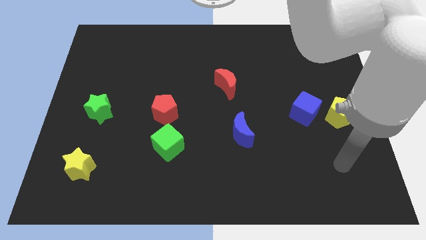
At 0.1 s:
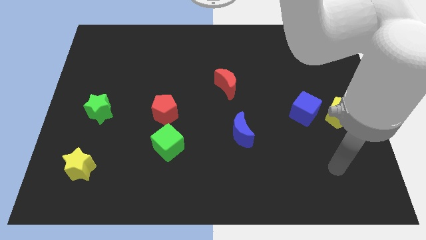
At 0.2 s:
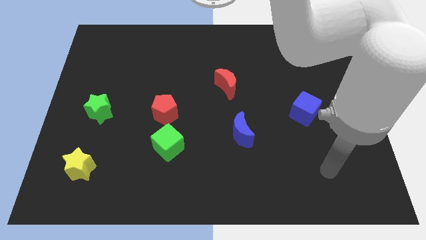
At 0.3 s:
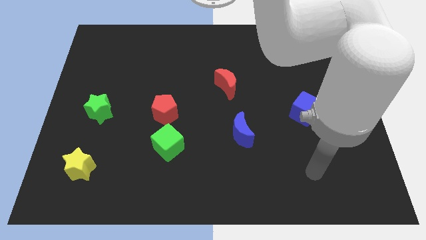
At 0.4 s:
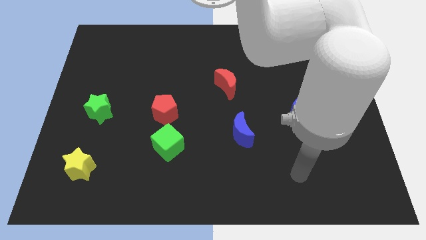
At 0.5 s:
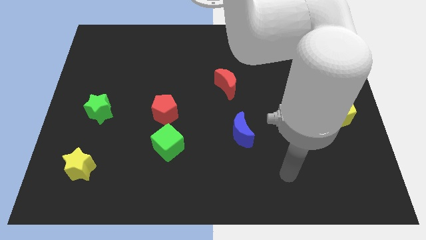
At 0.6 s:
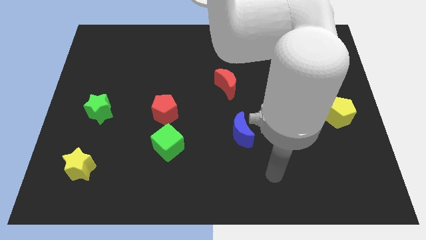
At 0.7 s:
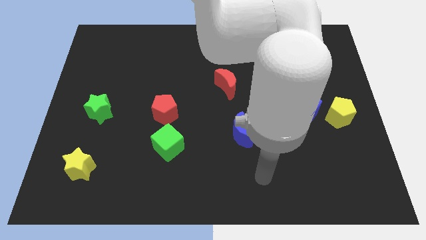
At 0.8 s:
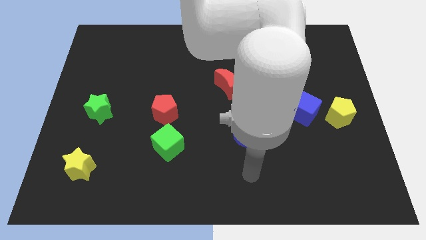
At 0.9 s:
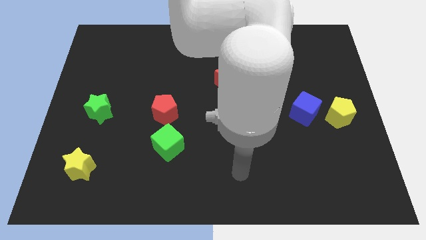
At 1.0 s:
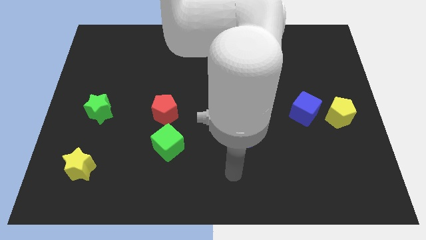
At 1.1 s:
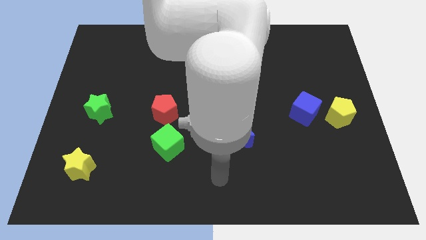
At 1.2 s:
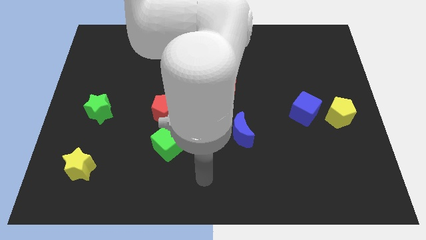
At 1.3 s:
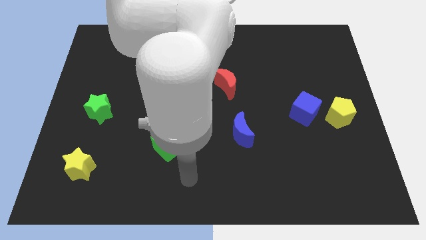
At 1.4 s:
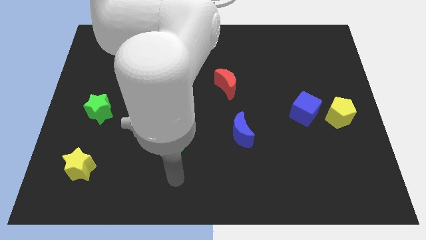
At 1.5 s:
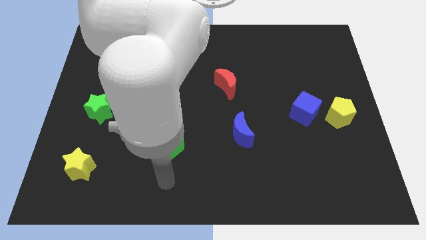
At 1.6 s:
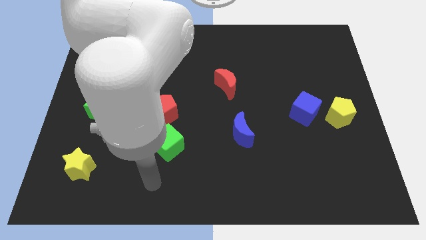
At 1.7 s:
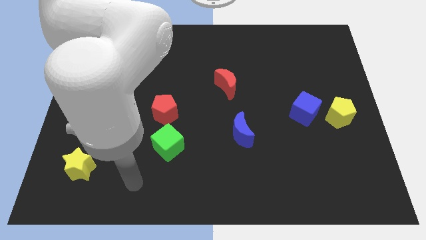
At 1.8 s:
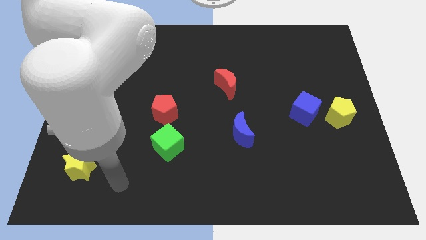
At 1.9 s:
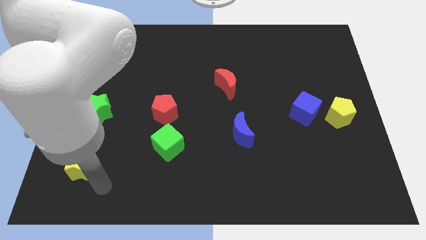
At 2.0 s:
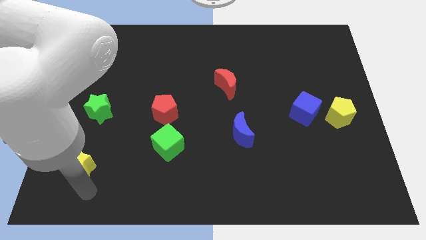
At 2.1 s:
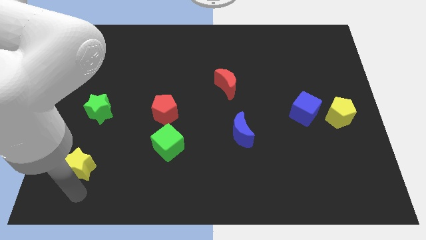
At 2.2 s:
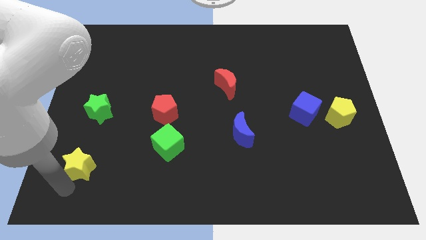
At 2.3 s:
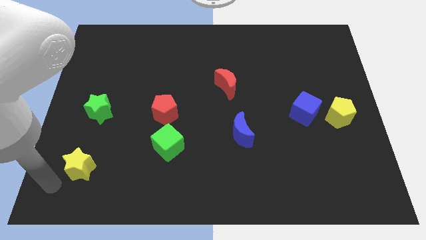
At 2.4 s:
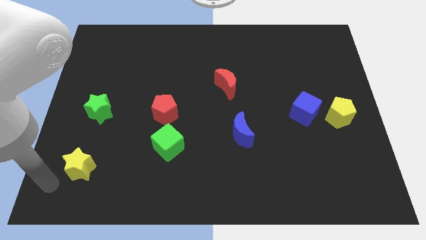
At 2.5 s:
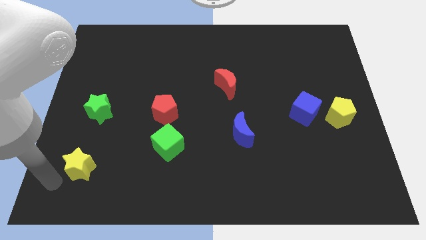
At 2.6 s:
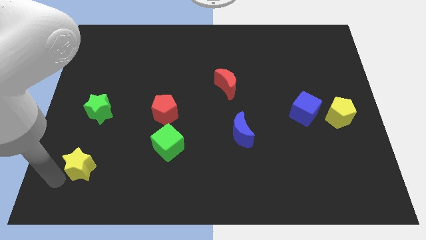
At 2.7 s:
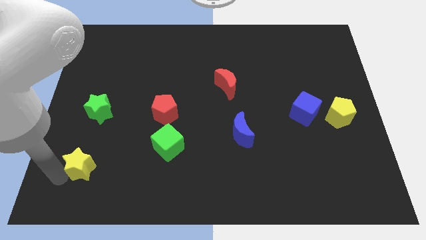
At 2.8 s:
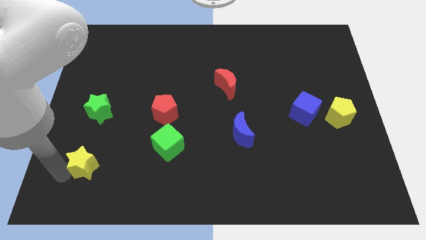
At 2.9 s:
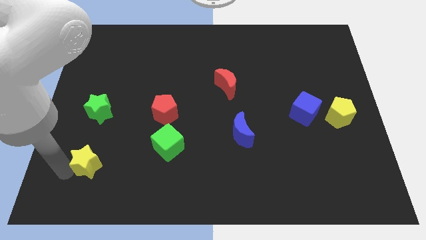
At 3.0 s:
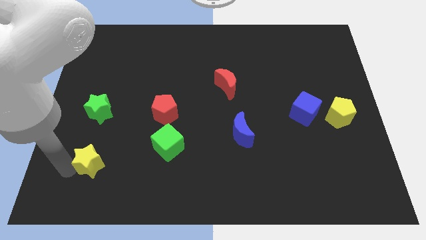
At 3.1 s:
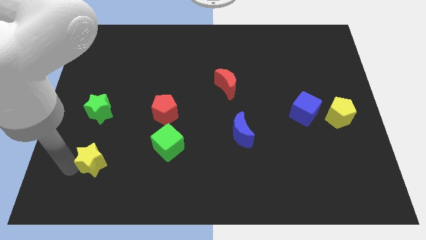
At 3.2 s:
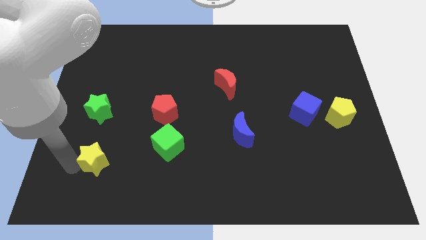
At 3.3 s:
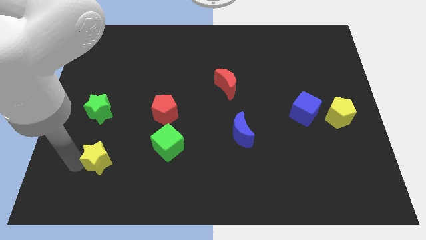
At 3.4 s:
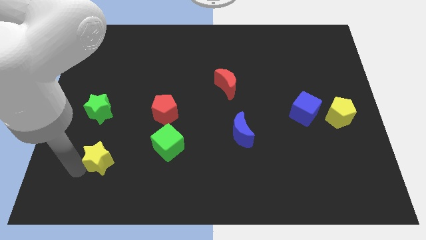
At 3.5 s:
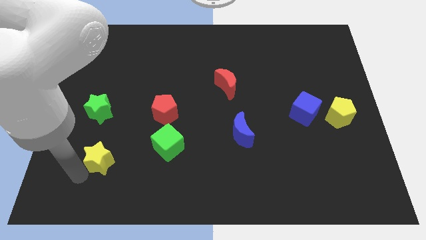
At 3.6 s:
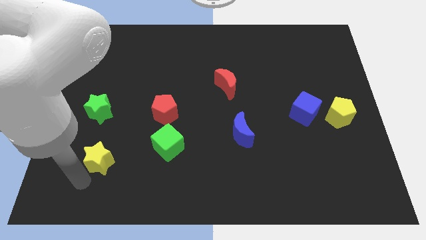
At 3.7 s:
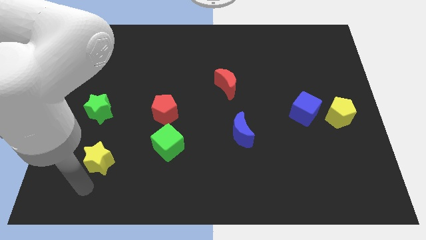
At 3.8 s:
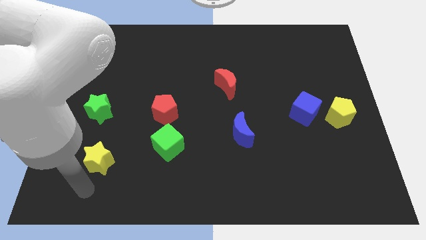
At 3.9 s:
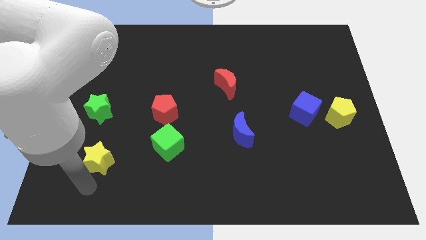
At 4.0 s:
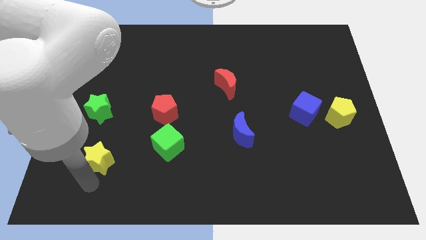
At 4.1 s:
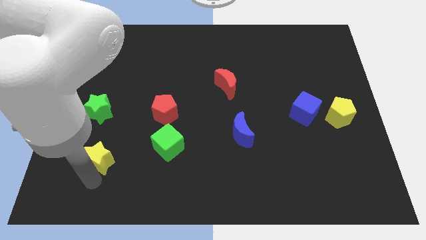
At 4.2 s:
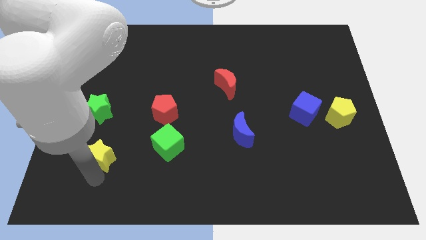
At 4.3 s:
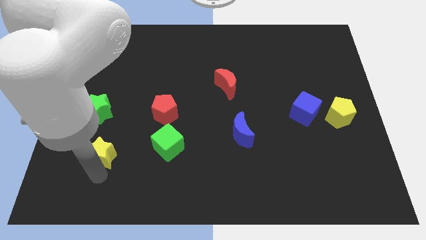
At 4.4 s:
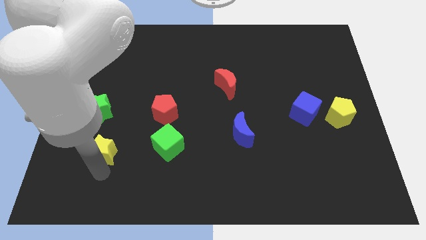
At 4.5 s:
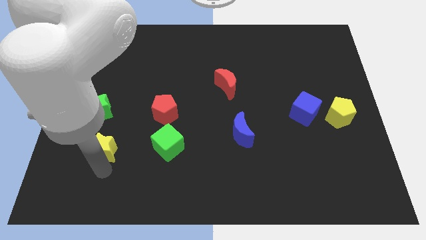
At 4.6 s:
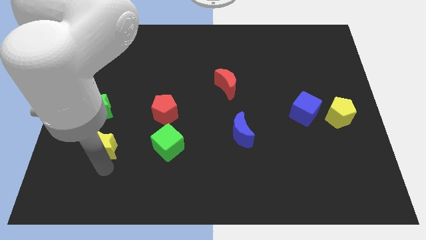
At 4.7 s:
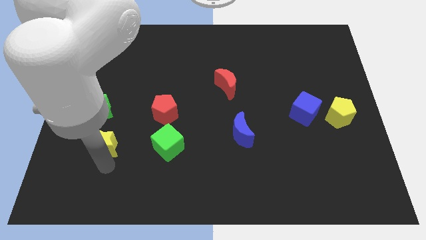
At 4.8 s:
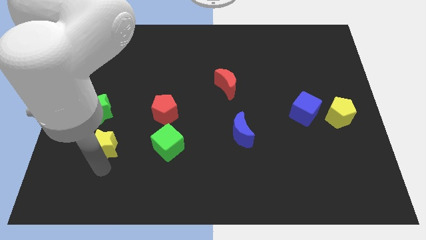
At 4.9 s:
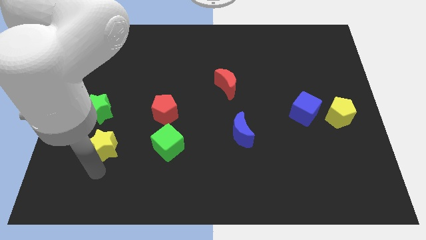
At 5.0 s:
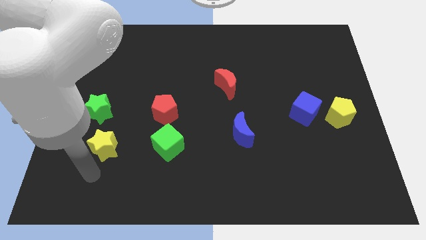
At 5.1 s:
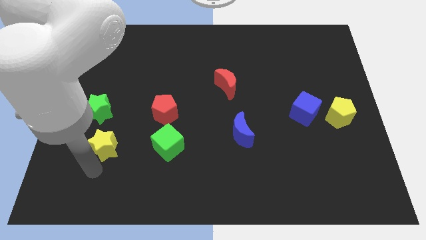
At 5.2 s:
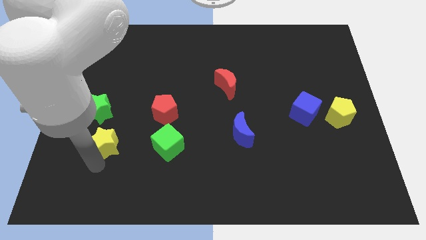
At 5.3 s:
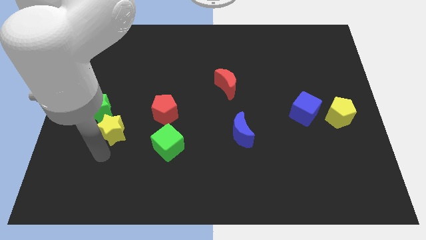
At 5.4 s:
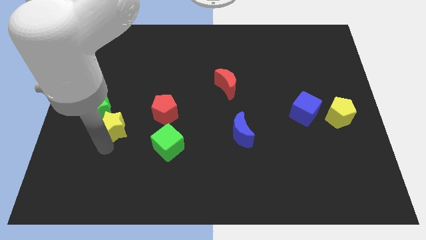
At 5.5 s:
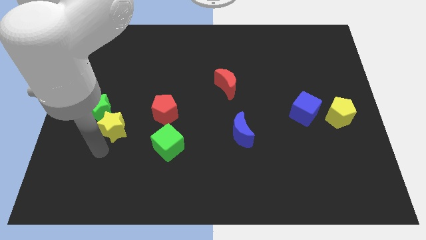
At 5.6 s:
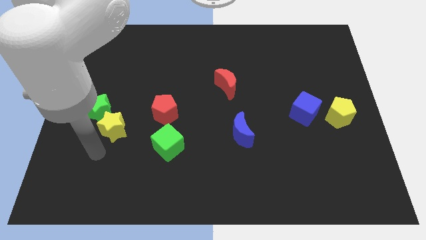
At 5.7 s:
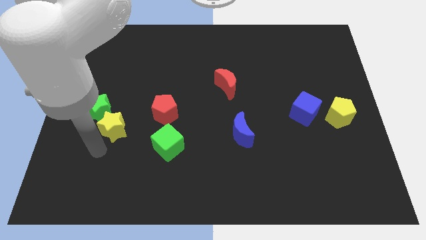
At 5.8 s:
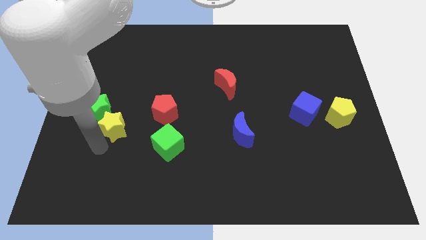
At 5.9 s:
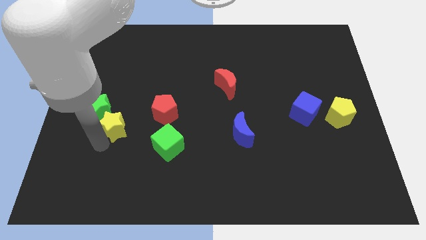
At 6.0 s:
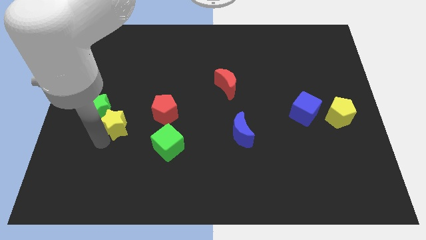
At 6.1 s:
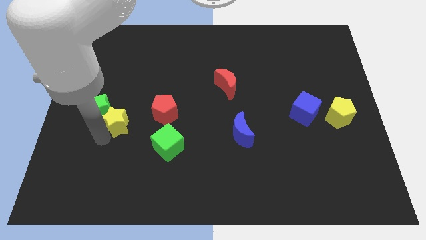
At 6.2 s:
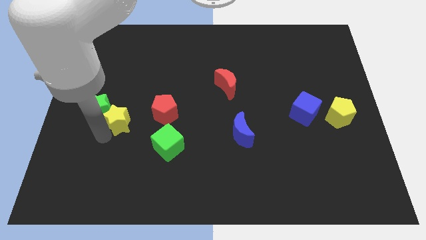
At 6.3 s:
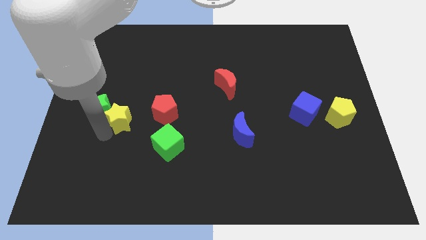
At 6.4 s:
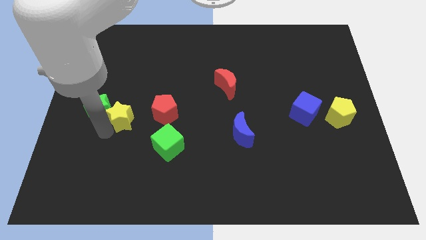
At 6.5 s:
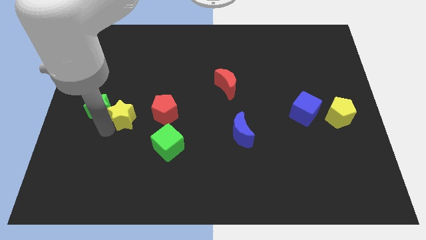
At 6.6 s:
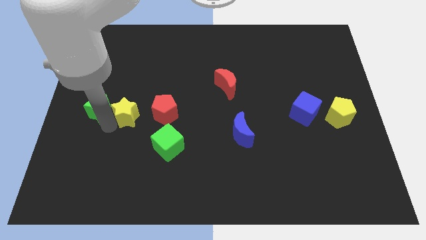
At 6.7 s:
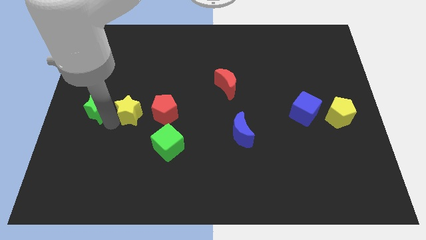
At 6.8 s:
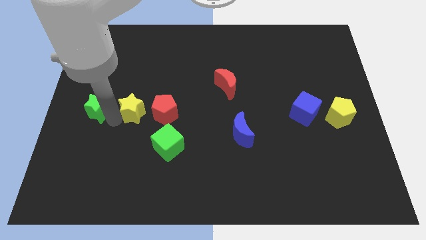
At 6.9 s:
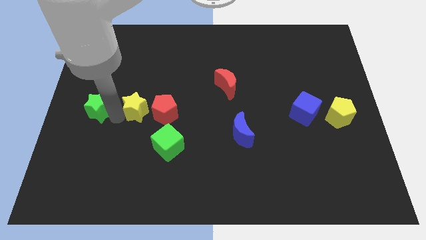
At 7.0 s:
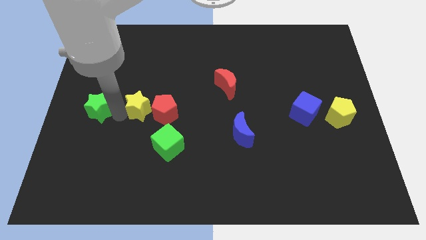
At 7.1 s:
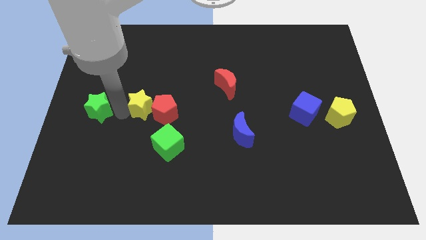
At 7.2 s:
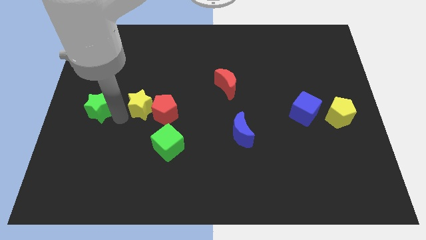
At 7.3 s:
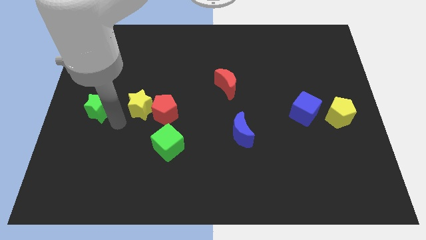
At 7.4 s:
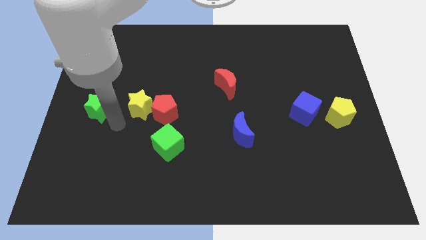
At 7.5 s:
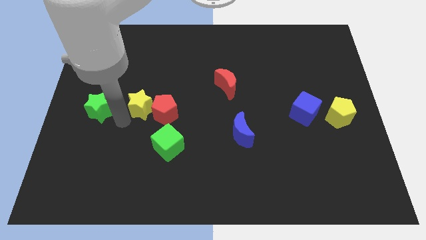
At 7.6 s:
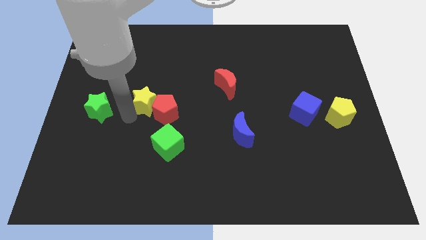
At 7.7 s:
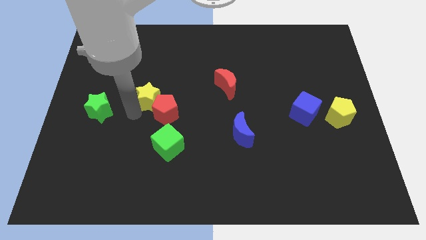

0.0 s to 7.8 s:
push the yellow star upwards and right diagonally

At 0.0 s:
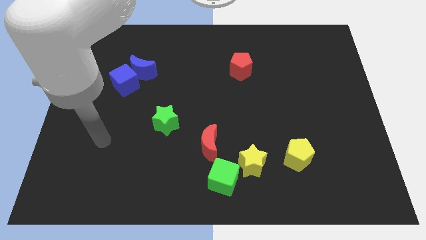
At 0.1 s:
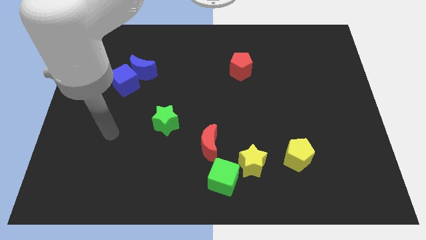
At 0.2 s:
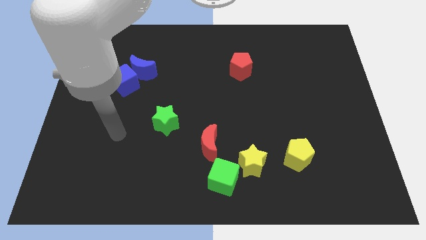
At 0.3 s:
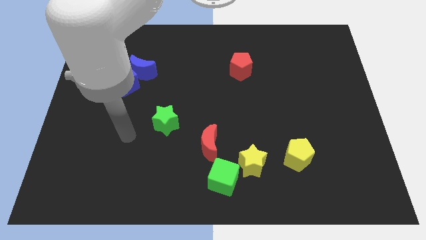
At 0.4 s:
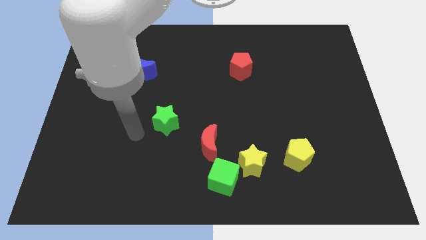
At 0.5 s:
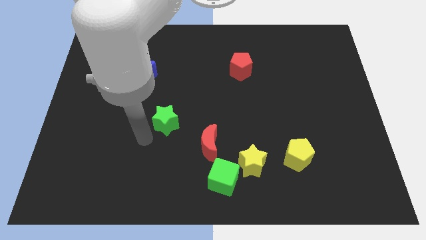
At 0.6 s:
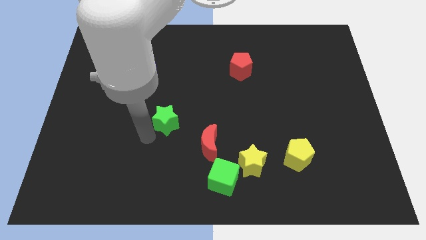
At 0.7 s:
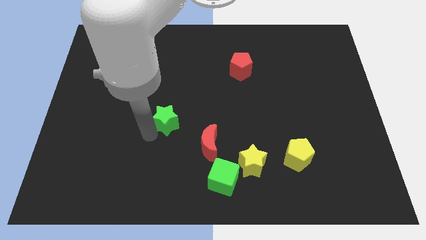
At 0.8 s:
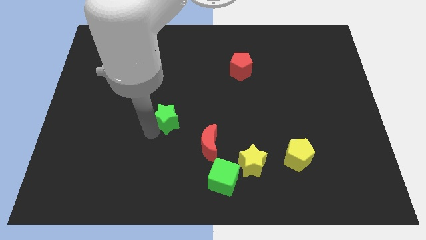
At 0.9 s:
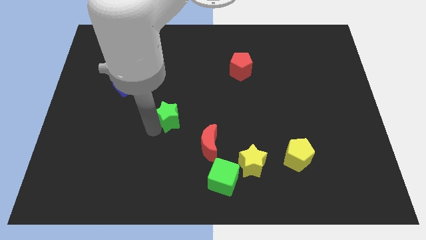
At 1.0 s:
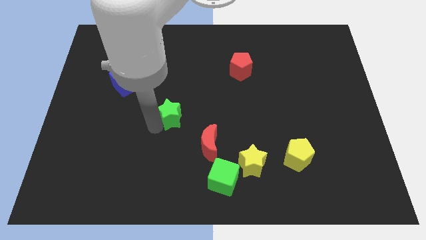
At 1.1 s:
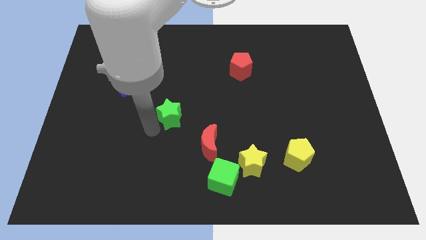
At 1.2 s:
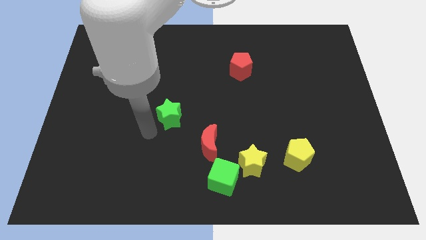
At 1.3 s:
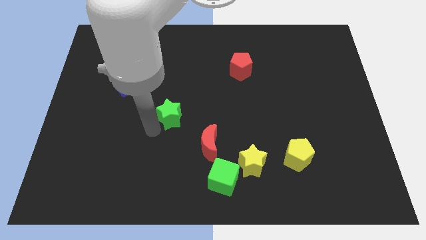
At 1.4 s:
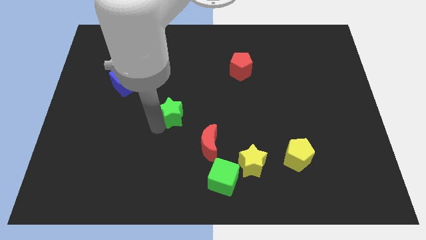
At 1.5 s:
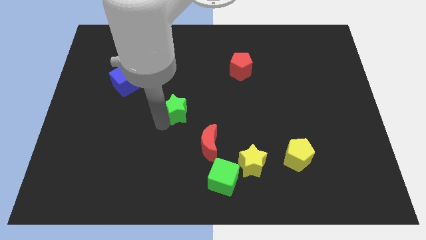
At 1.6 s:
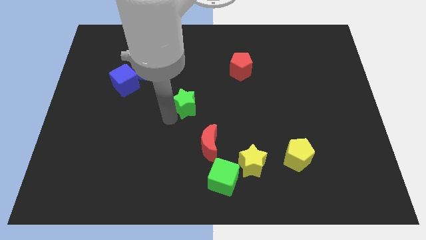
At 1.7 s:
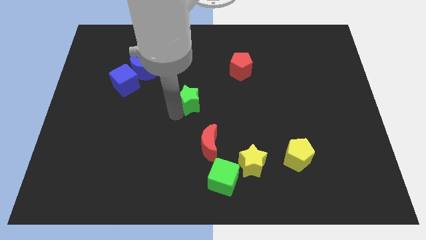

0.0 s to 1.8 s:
slightly slide the green star up and right
